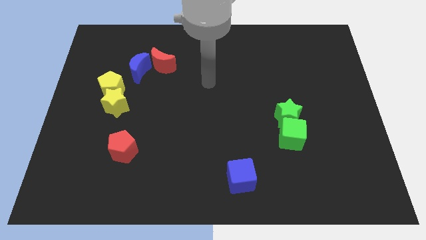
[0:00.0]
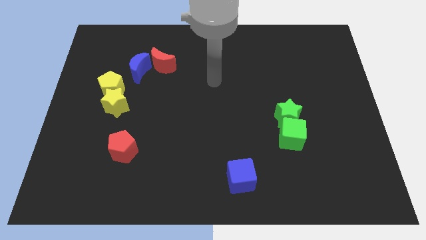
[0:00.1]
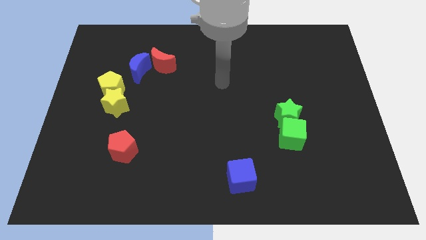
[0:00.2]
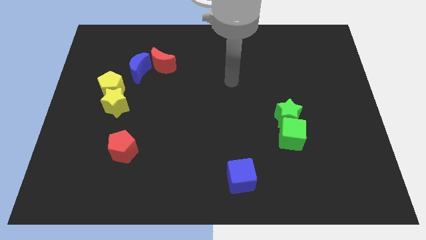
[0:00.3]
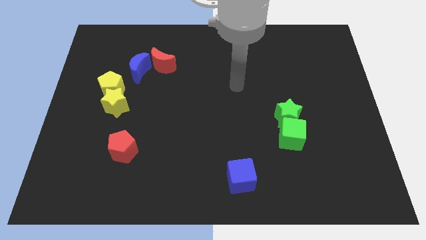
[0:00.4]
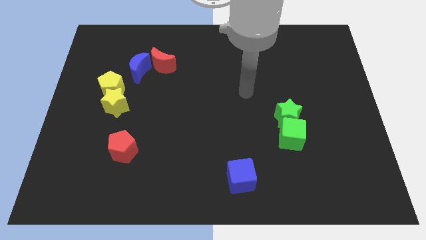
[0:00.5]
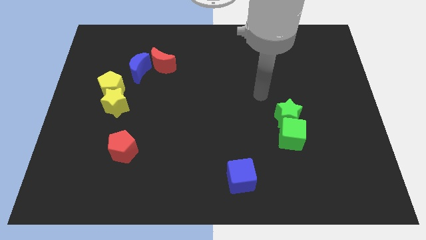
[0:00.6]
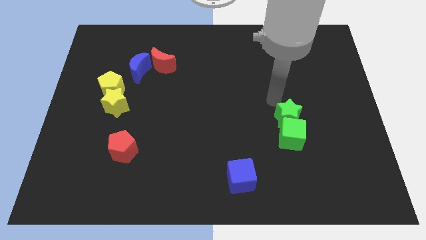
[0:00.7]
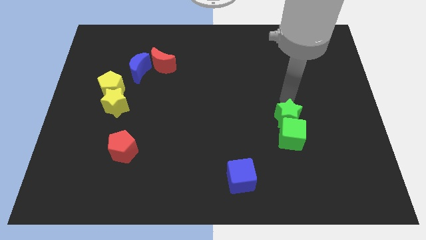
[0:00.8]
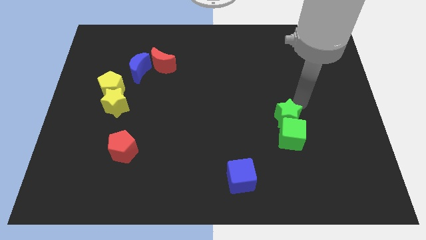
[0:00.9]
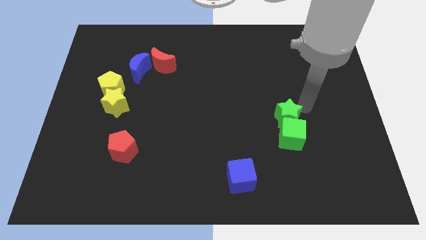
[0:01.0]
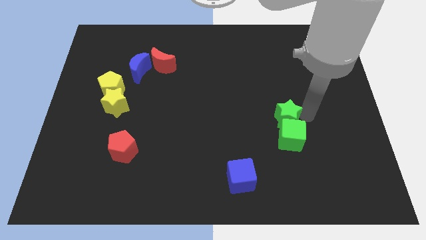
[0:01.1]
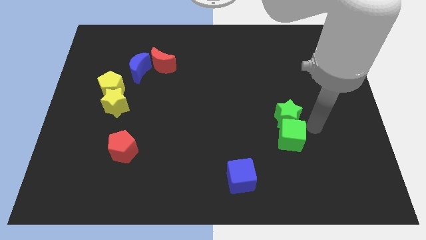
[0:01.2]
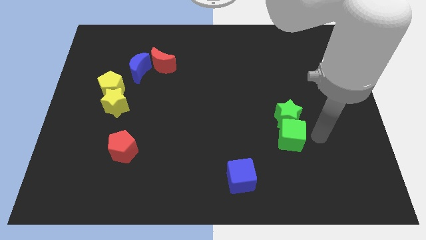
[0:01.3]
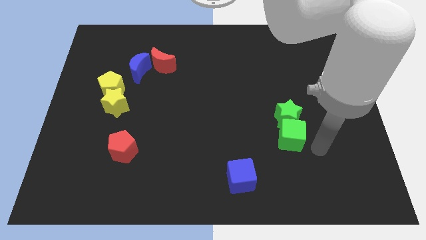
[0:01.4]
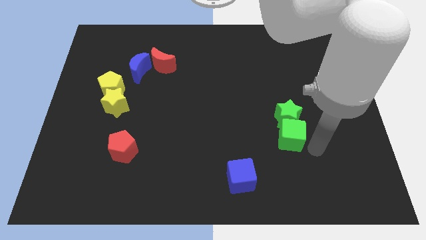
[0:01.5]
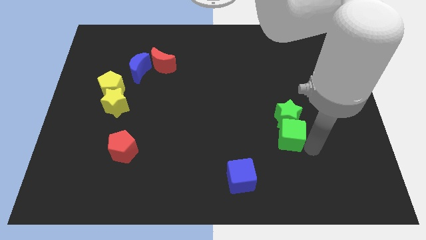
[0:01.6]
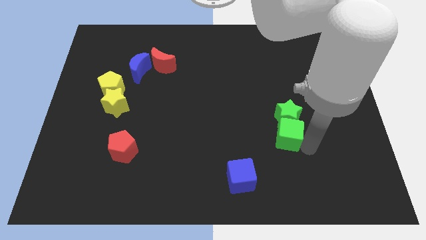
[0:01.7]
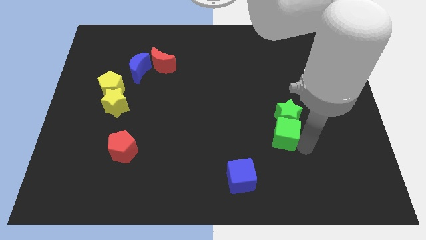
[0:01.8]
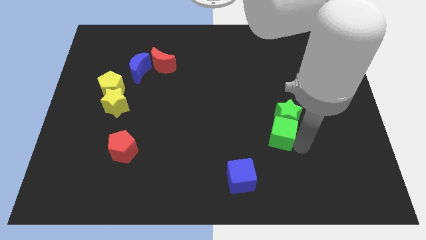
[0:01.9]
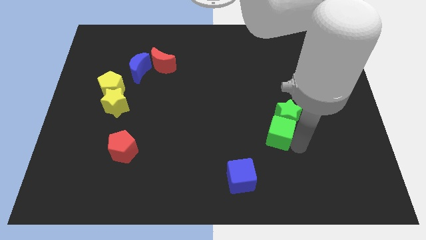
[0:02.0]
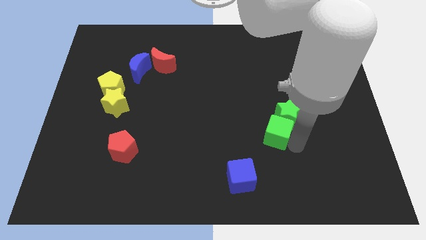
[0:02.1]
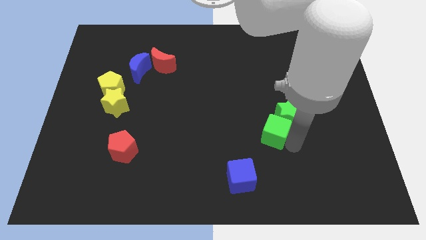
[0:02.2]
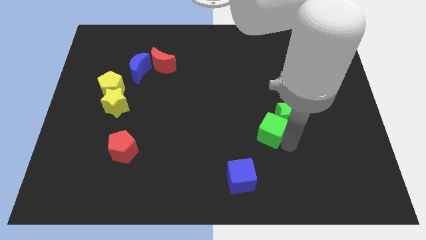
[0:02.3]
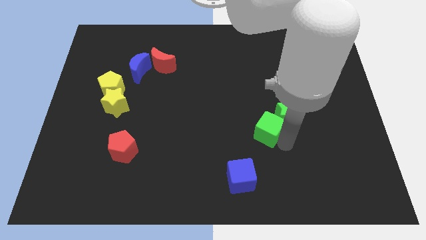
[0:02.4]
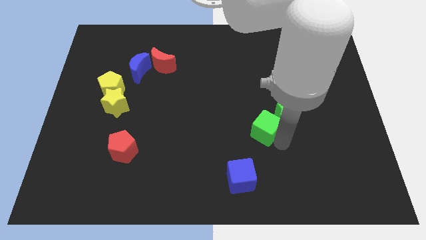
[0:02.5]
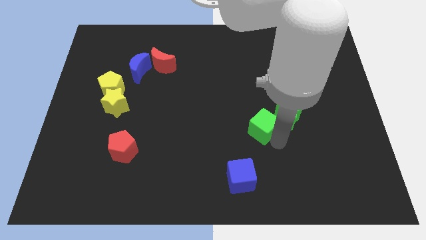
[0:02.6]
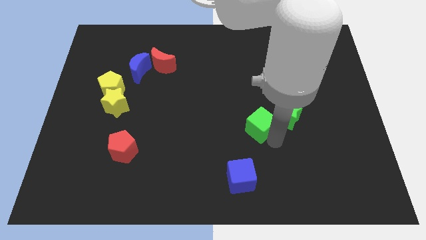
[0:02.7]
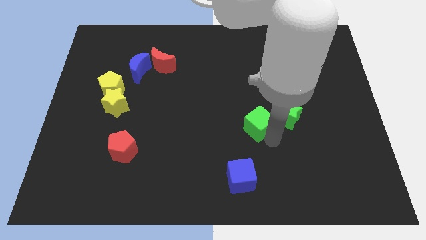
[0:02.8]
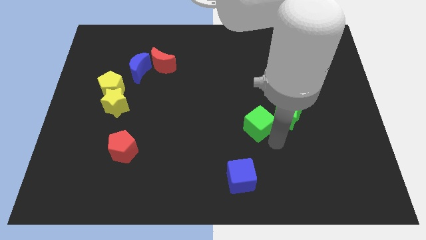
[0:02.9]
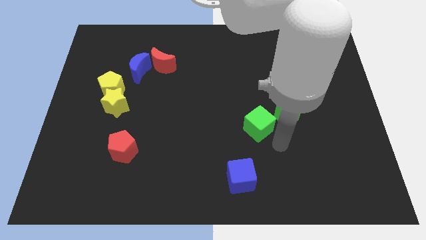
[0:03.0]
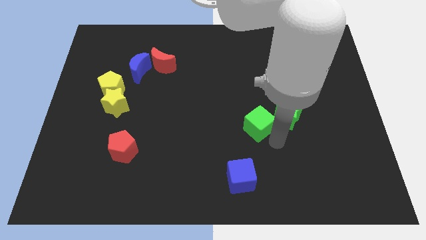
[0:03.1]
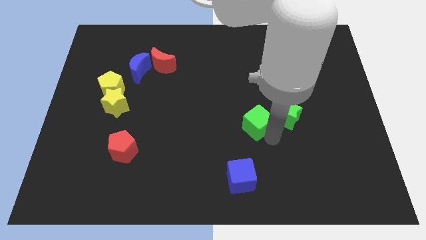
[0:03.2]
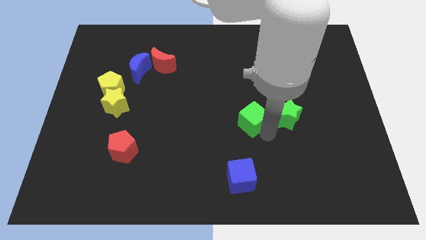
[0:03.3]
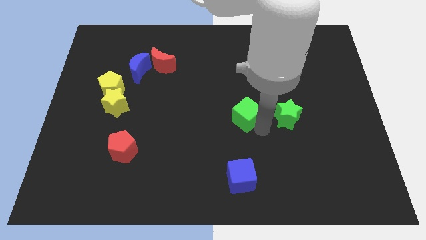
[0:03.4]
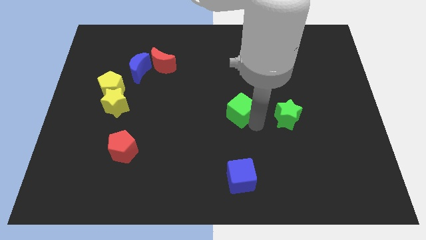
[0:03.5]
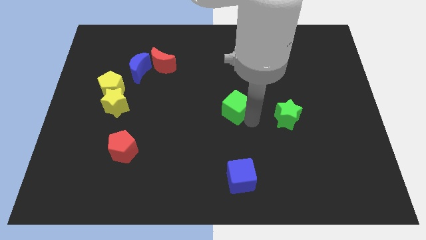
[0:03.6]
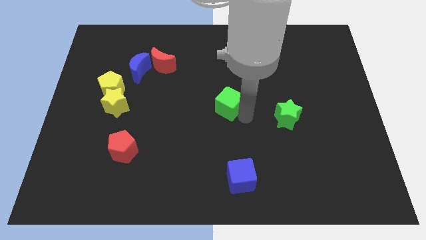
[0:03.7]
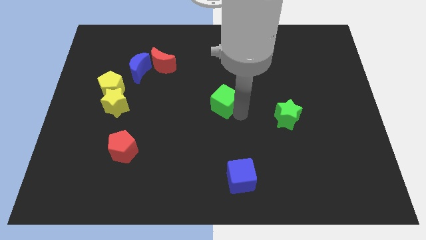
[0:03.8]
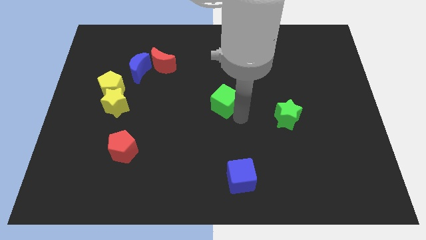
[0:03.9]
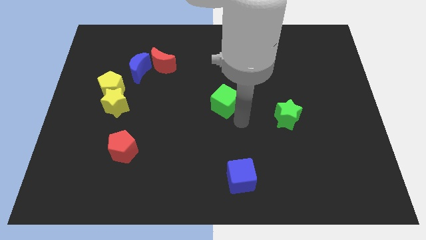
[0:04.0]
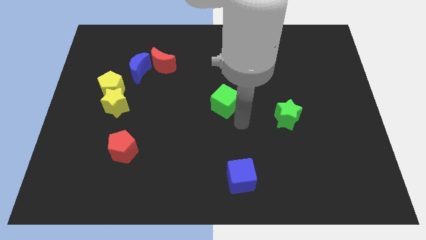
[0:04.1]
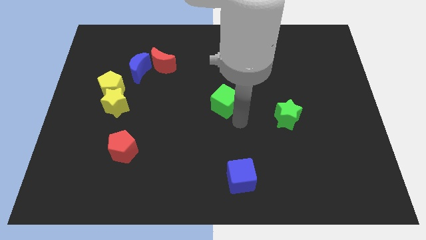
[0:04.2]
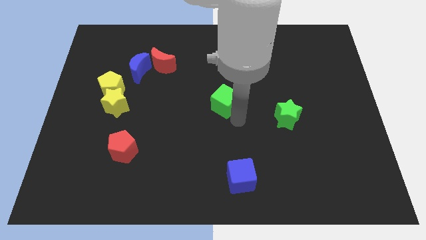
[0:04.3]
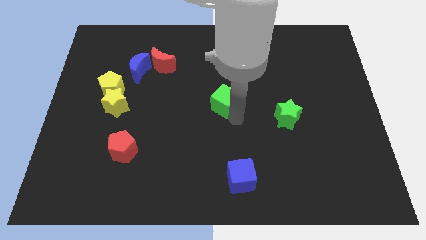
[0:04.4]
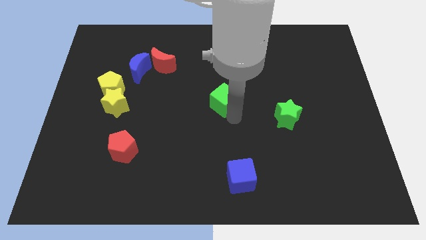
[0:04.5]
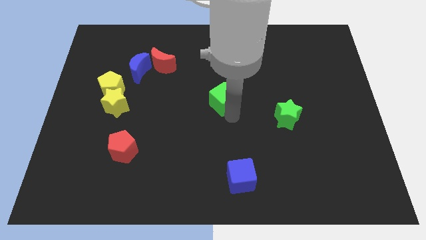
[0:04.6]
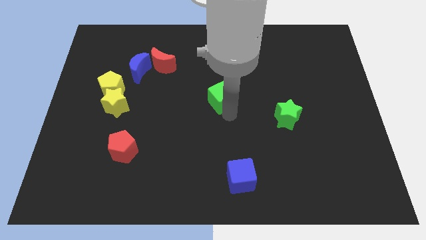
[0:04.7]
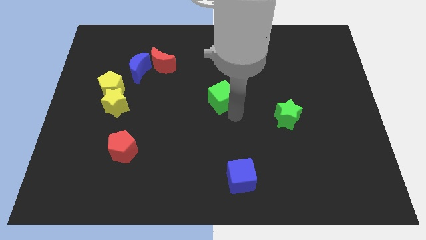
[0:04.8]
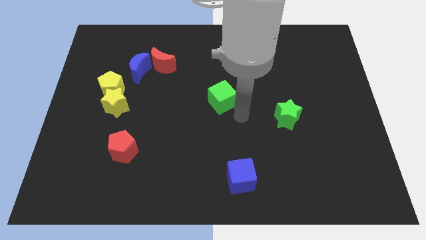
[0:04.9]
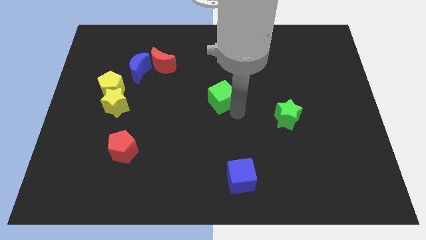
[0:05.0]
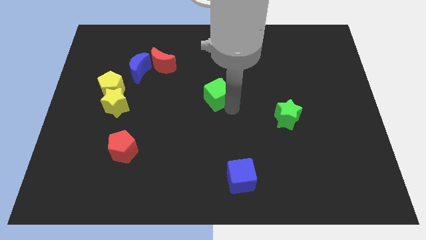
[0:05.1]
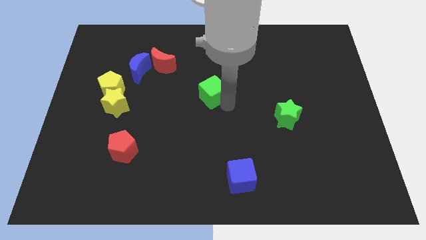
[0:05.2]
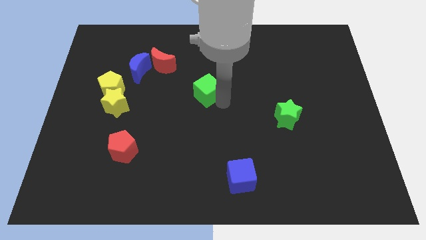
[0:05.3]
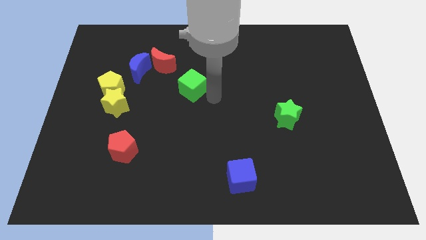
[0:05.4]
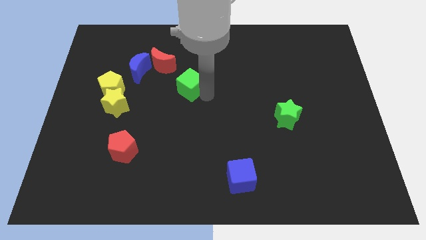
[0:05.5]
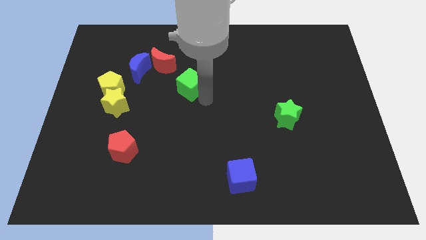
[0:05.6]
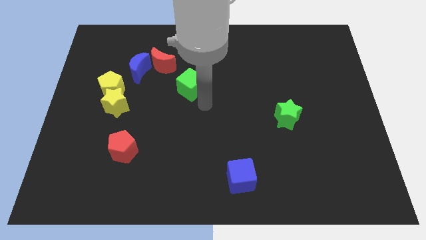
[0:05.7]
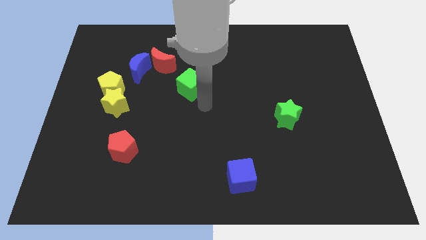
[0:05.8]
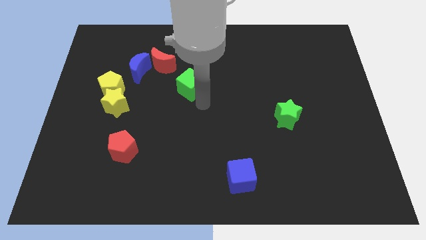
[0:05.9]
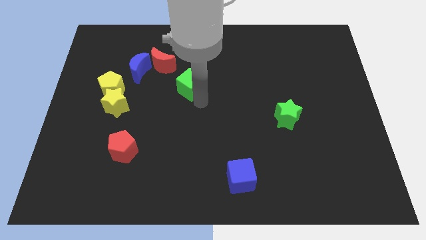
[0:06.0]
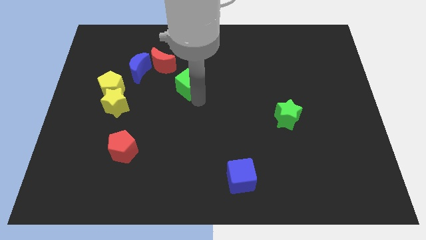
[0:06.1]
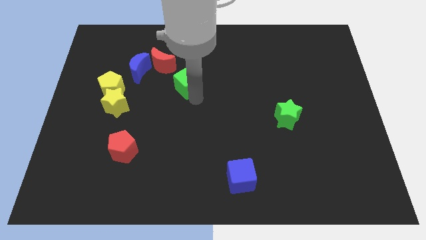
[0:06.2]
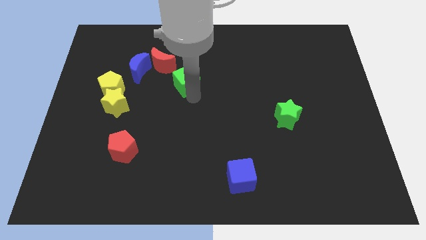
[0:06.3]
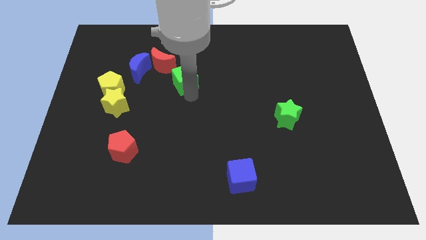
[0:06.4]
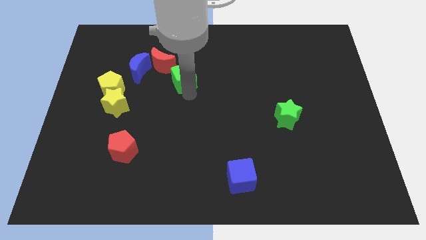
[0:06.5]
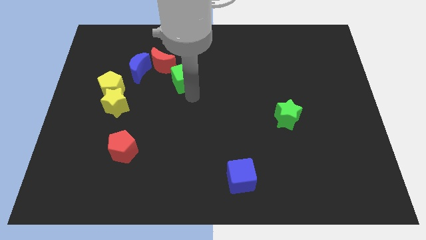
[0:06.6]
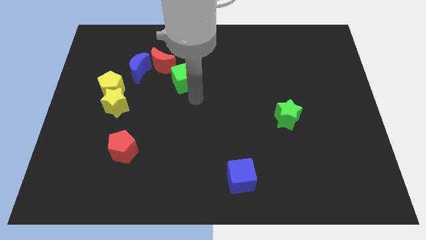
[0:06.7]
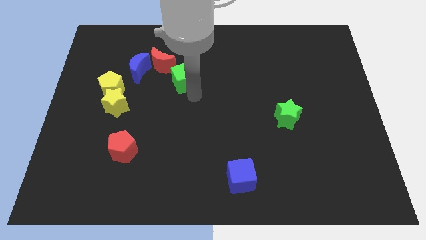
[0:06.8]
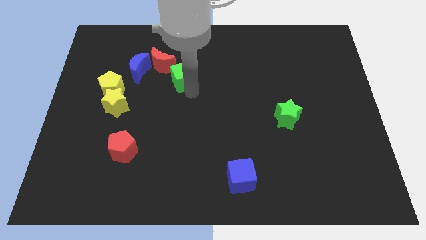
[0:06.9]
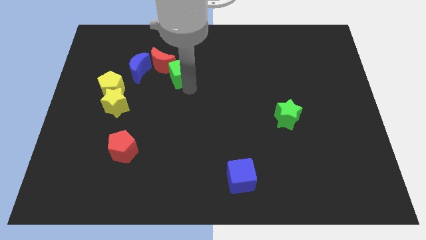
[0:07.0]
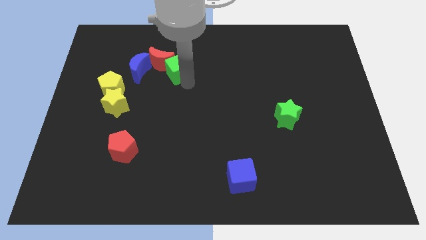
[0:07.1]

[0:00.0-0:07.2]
move the green cube towards the red moon
